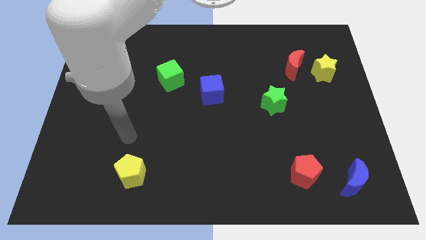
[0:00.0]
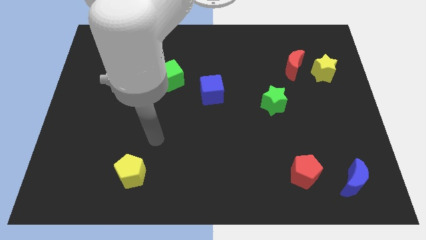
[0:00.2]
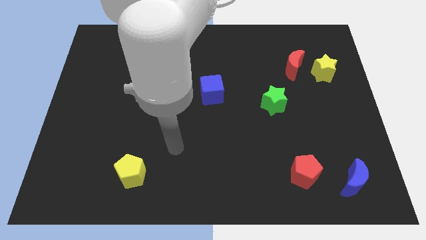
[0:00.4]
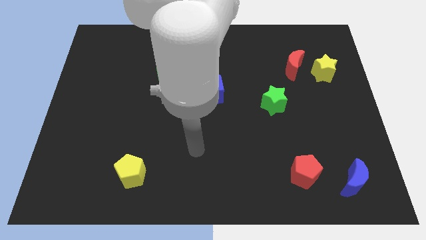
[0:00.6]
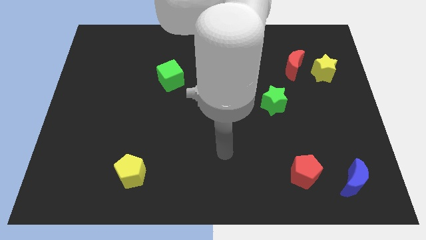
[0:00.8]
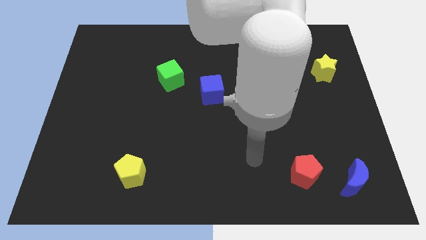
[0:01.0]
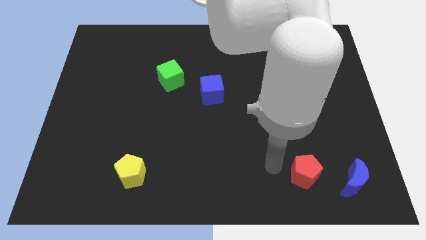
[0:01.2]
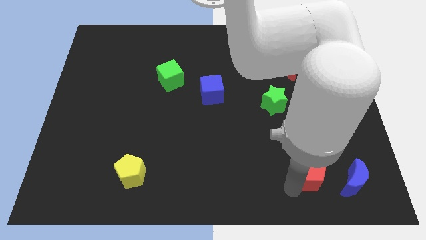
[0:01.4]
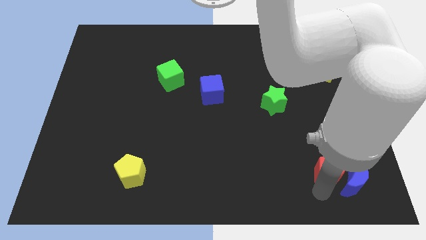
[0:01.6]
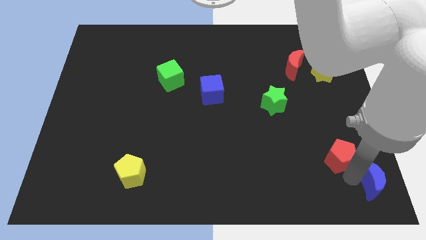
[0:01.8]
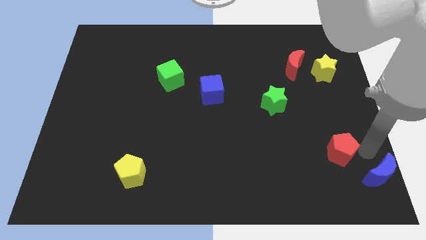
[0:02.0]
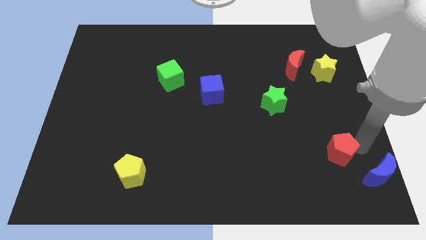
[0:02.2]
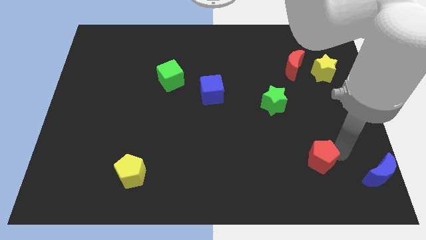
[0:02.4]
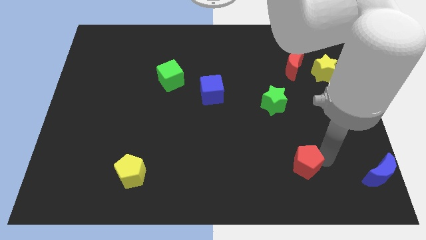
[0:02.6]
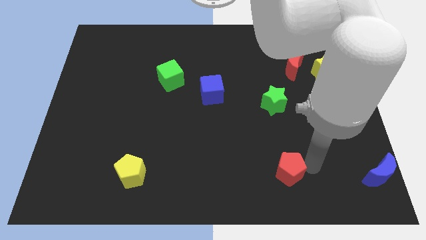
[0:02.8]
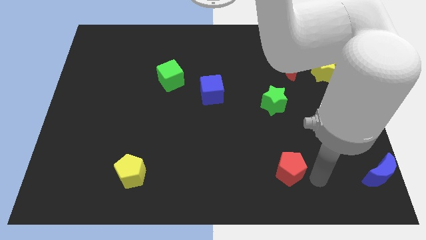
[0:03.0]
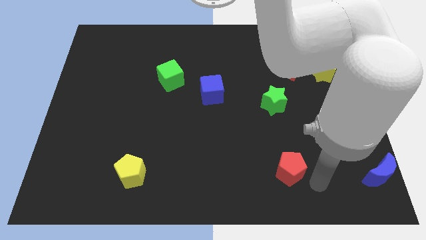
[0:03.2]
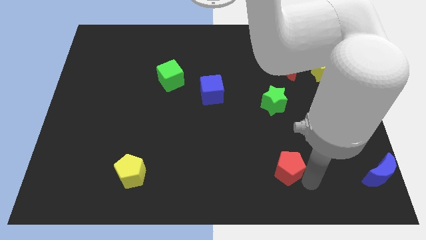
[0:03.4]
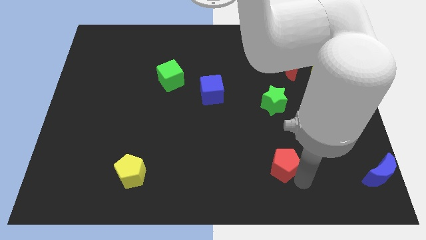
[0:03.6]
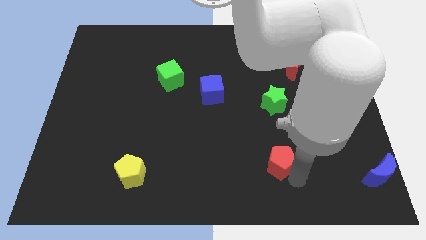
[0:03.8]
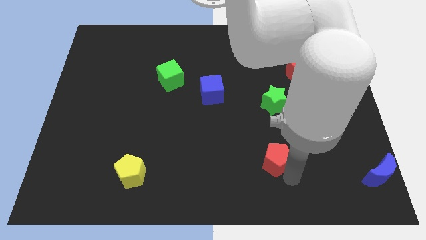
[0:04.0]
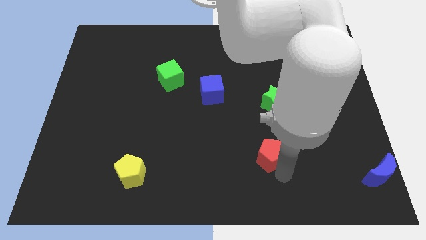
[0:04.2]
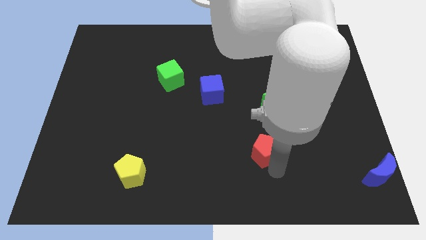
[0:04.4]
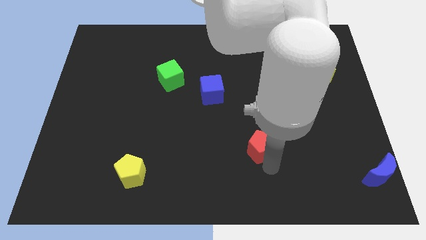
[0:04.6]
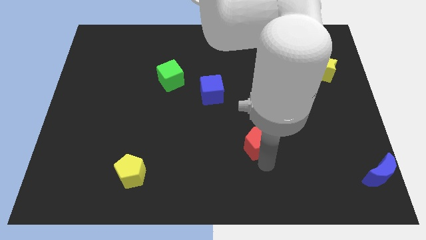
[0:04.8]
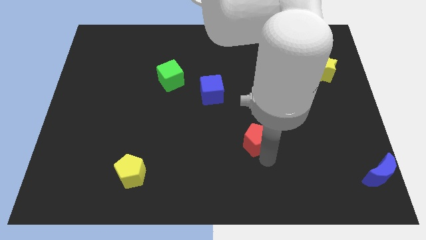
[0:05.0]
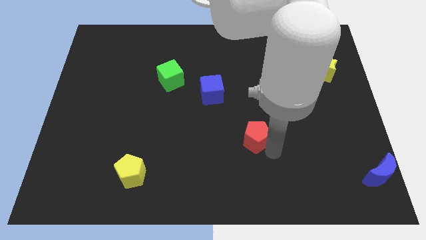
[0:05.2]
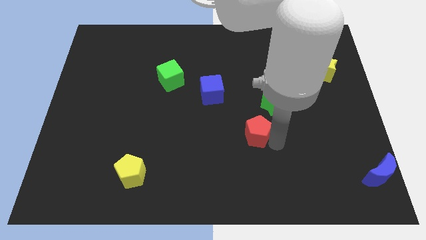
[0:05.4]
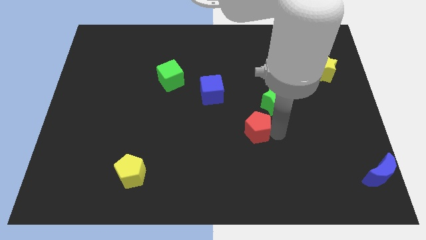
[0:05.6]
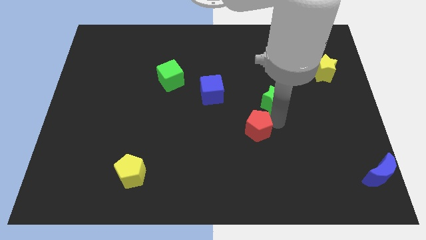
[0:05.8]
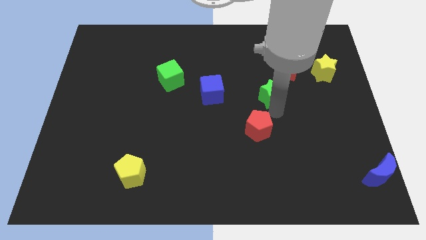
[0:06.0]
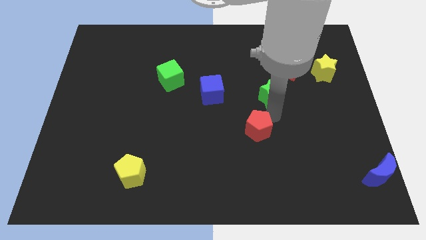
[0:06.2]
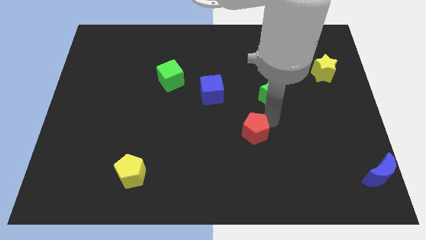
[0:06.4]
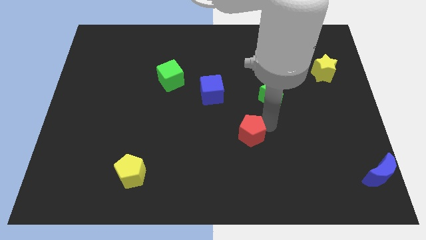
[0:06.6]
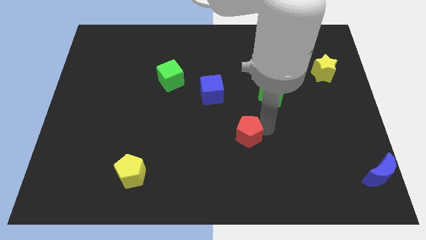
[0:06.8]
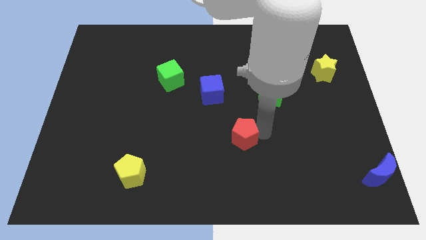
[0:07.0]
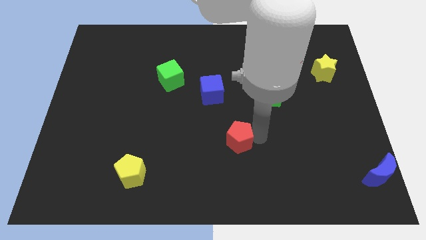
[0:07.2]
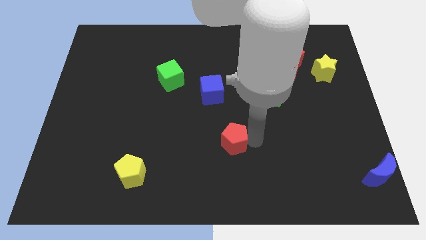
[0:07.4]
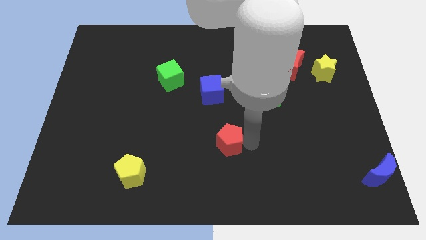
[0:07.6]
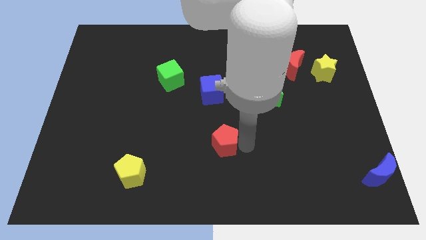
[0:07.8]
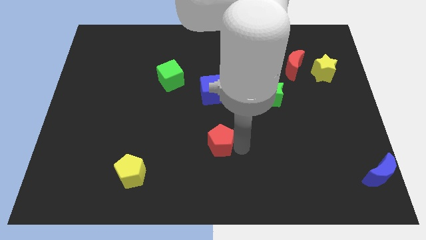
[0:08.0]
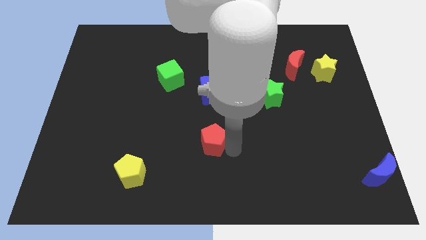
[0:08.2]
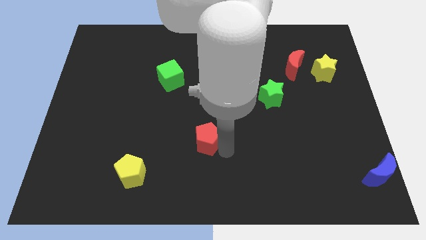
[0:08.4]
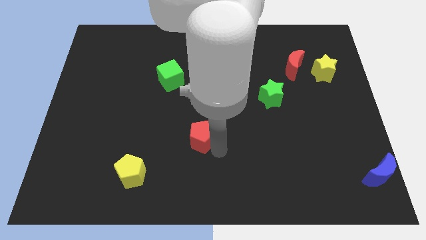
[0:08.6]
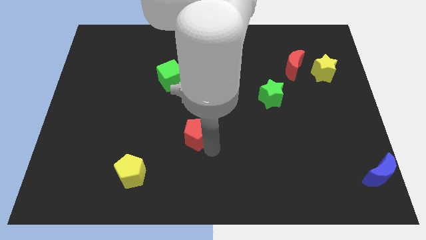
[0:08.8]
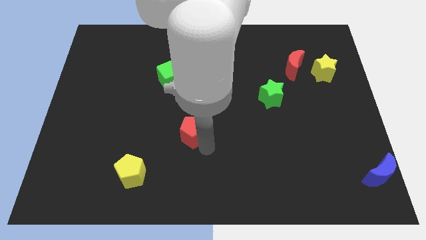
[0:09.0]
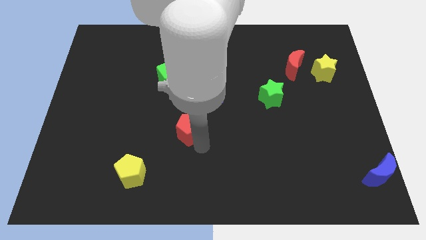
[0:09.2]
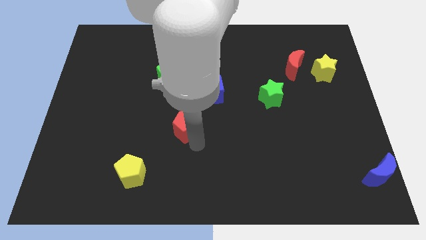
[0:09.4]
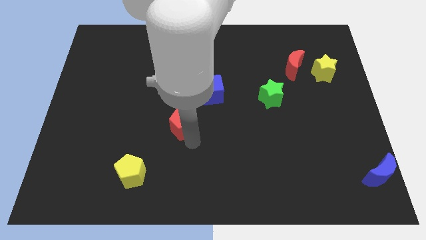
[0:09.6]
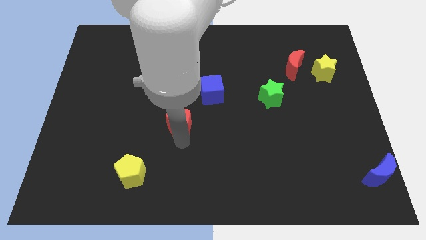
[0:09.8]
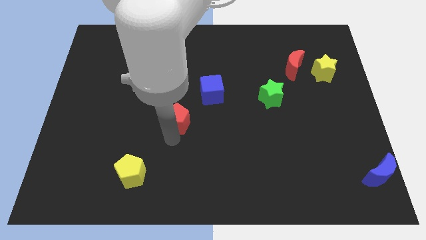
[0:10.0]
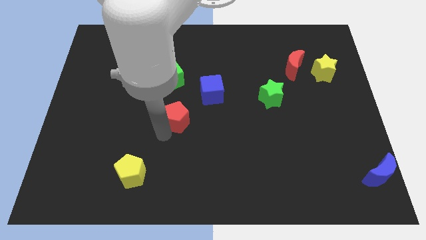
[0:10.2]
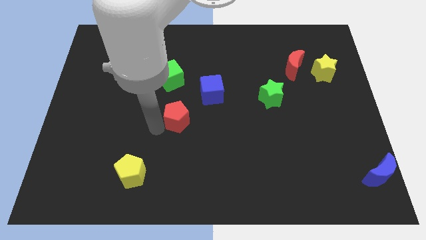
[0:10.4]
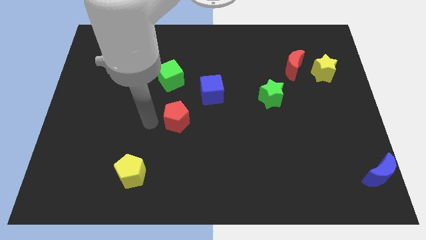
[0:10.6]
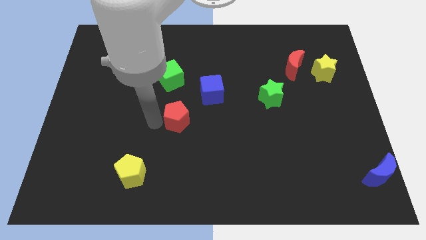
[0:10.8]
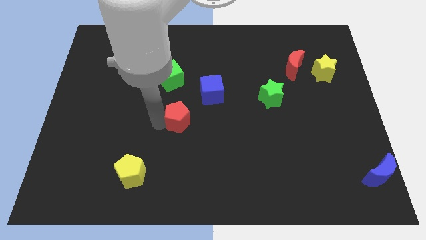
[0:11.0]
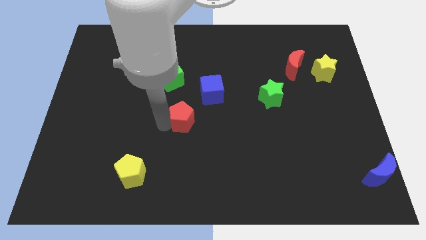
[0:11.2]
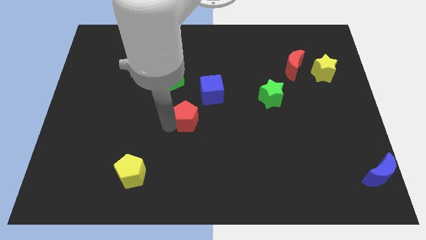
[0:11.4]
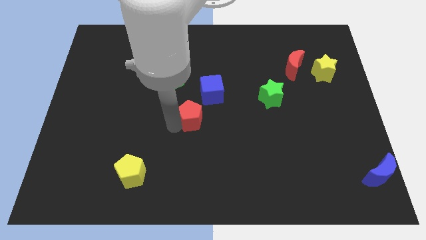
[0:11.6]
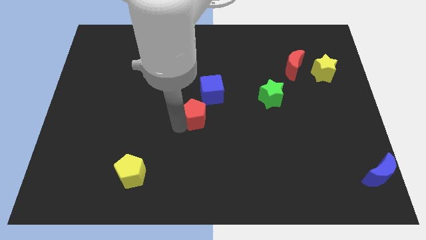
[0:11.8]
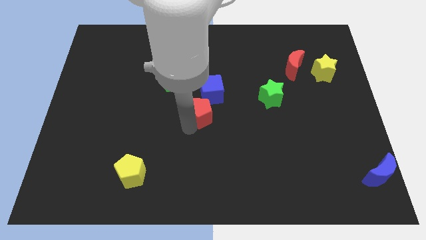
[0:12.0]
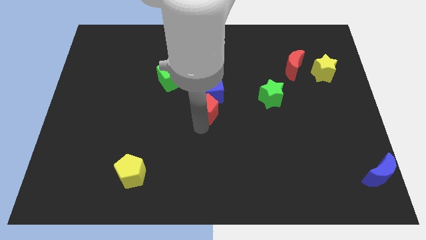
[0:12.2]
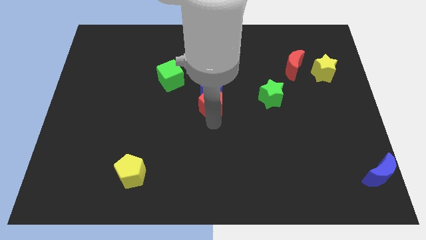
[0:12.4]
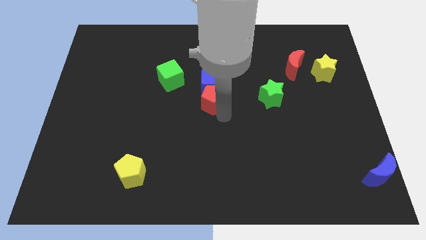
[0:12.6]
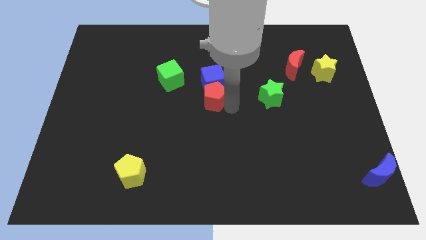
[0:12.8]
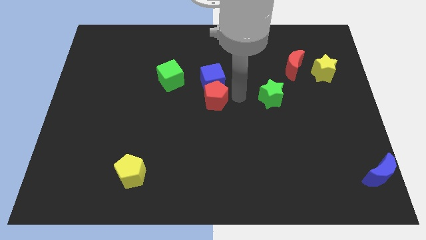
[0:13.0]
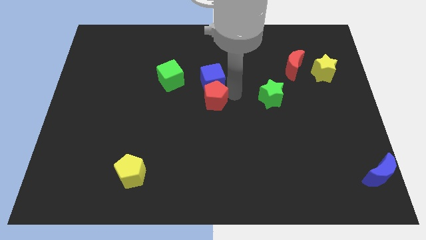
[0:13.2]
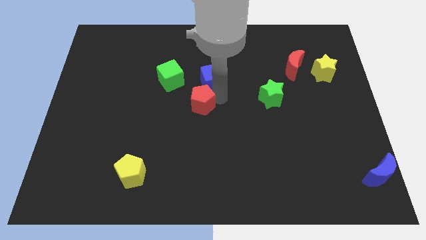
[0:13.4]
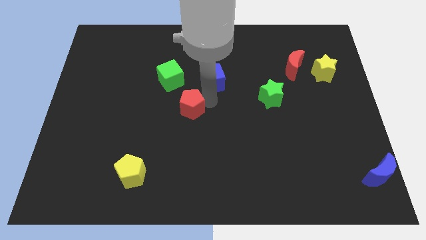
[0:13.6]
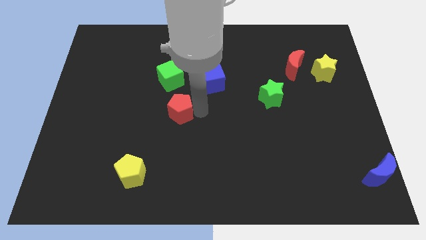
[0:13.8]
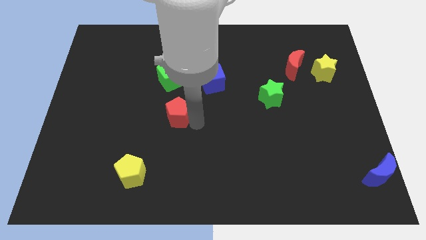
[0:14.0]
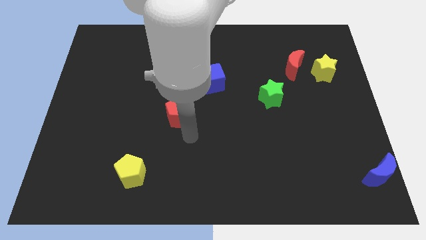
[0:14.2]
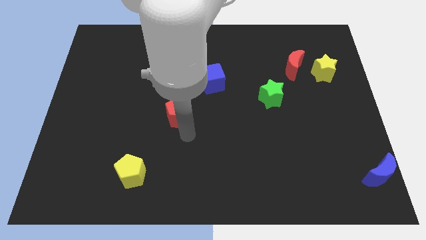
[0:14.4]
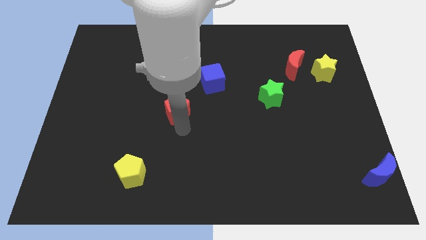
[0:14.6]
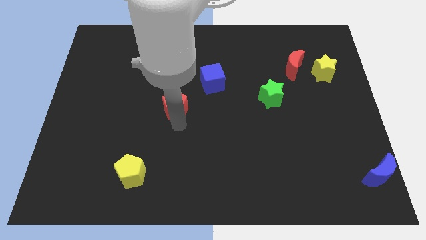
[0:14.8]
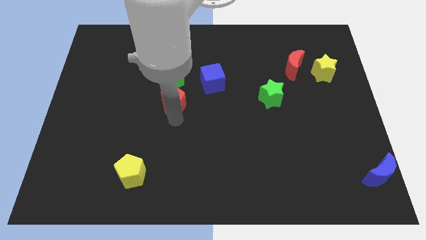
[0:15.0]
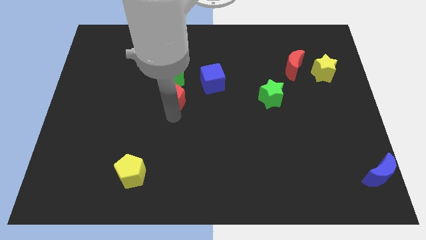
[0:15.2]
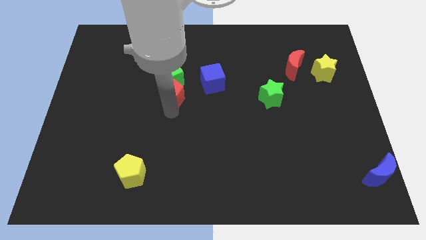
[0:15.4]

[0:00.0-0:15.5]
push the red pentagon to the green cube
